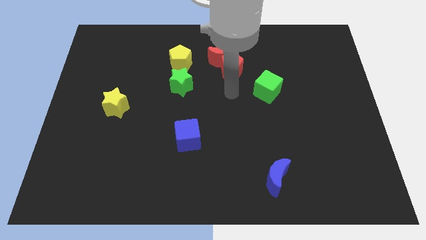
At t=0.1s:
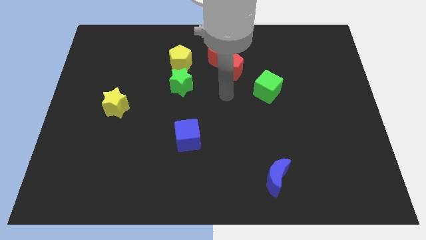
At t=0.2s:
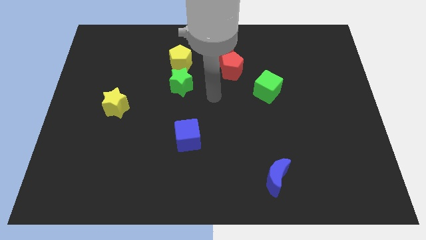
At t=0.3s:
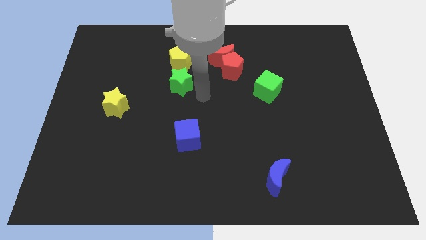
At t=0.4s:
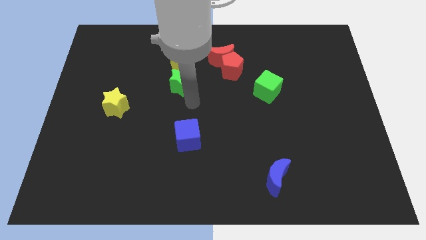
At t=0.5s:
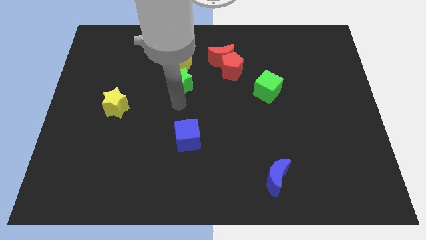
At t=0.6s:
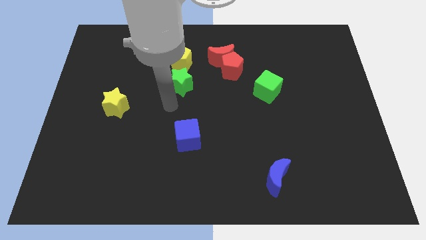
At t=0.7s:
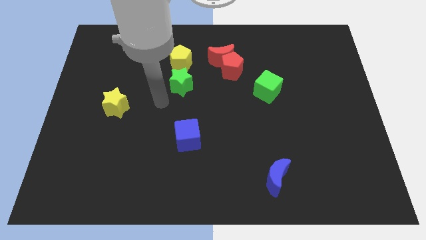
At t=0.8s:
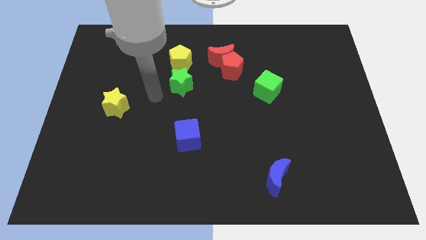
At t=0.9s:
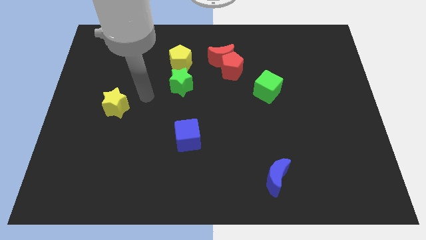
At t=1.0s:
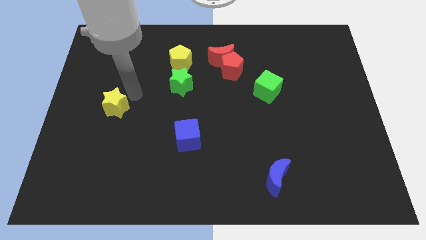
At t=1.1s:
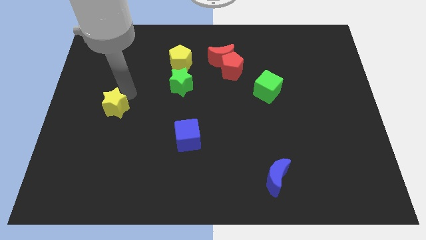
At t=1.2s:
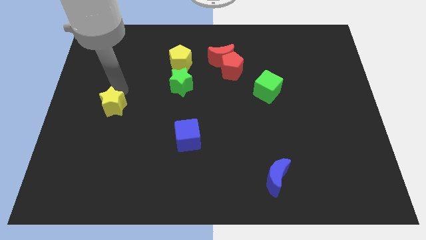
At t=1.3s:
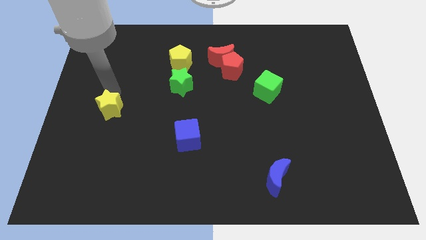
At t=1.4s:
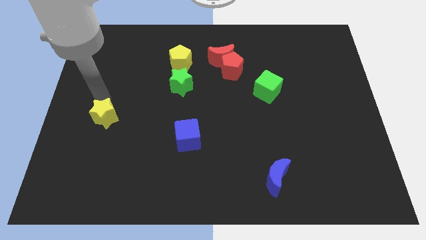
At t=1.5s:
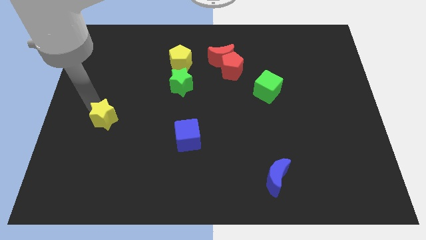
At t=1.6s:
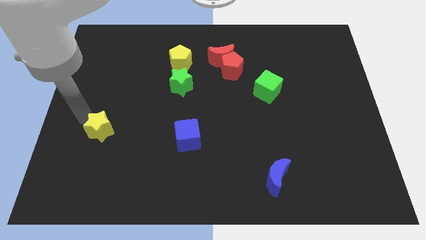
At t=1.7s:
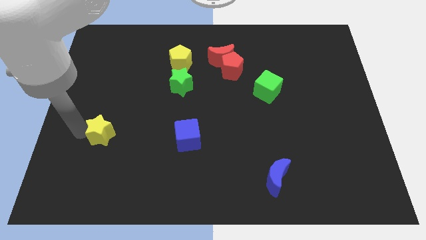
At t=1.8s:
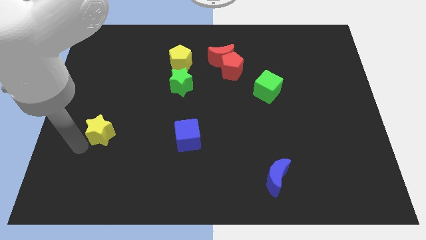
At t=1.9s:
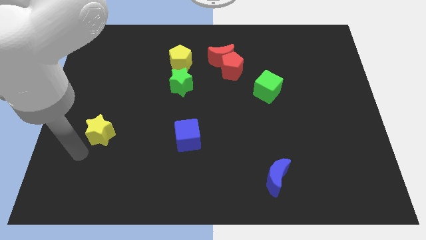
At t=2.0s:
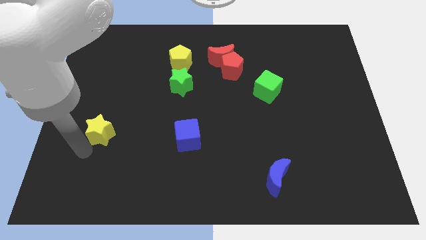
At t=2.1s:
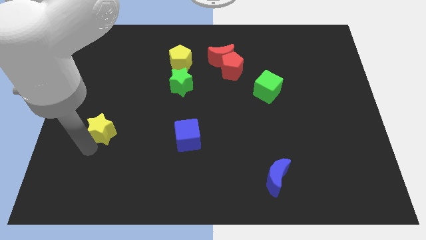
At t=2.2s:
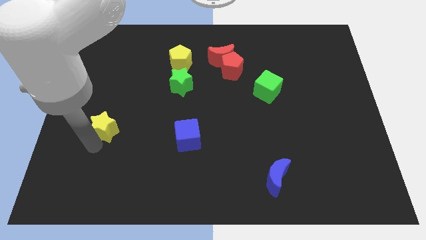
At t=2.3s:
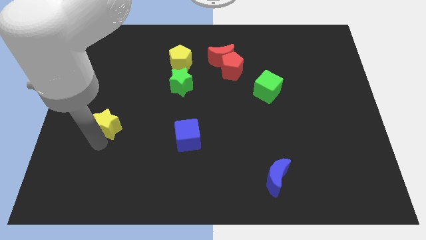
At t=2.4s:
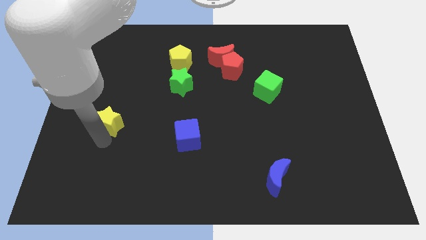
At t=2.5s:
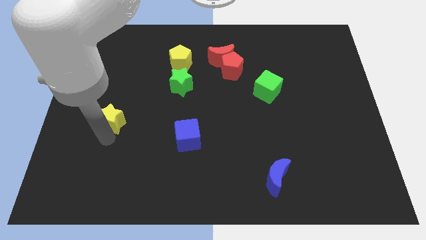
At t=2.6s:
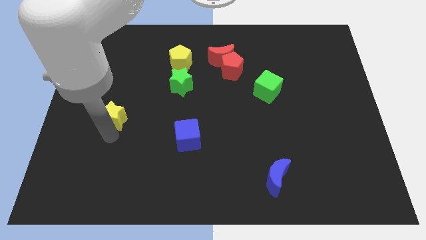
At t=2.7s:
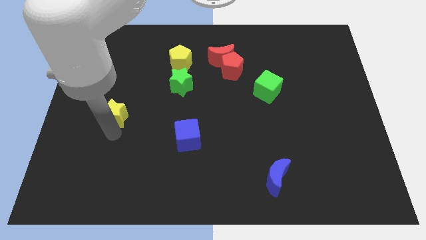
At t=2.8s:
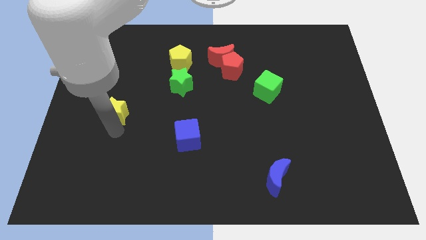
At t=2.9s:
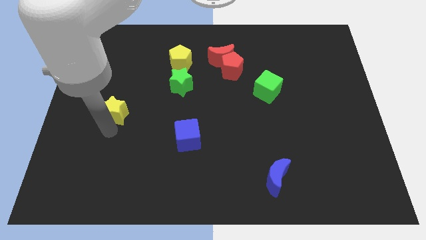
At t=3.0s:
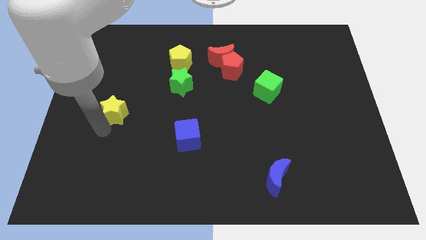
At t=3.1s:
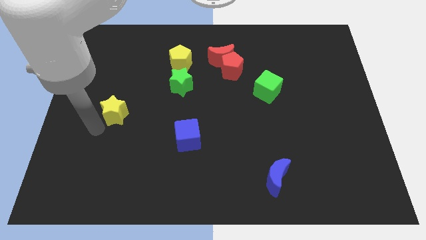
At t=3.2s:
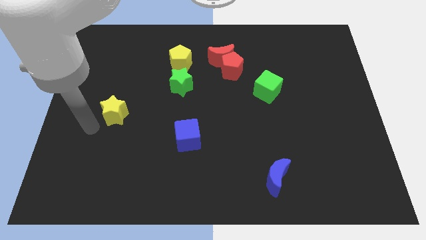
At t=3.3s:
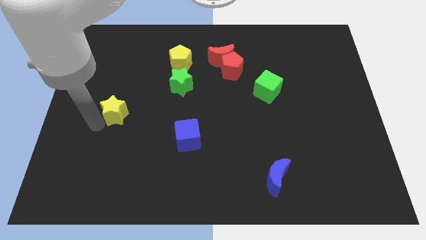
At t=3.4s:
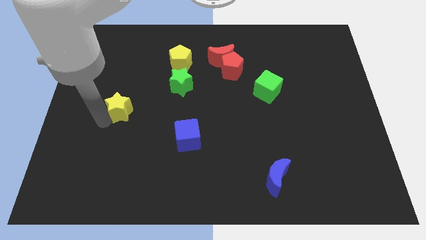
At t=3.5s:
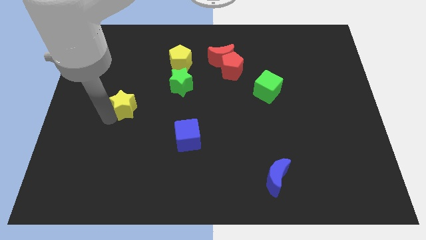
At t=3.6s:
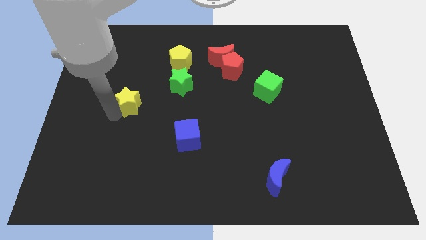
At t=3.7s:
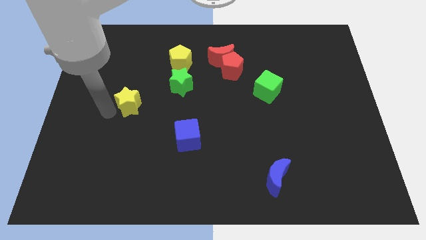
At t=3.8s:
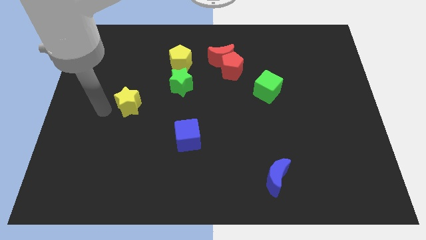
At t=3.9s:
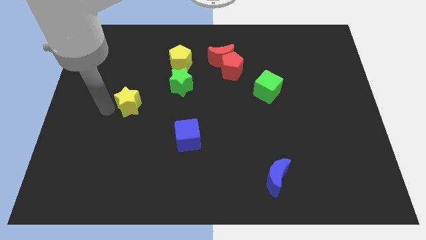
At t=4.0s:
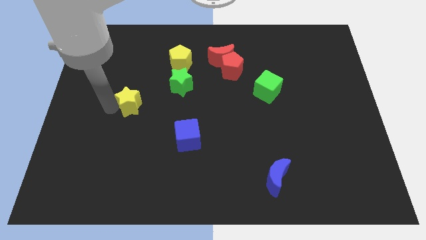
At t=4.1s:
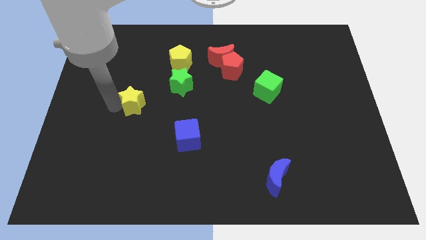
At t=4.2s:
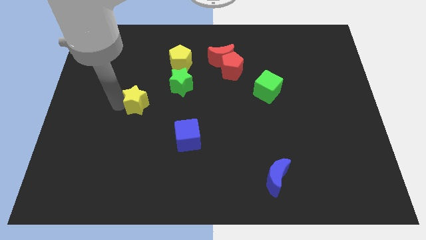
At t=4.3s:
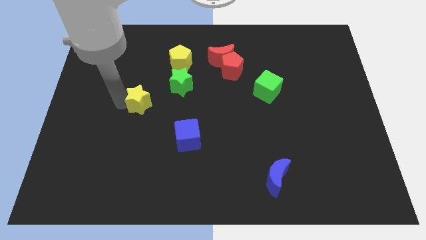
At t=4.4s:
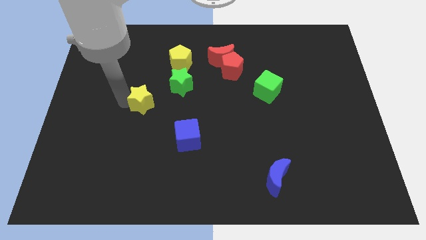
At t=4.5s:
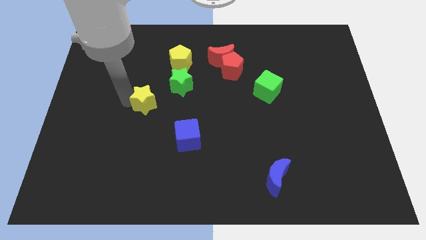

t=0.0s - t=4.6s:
slide the yellow star slightly to the right

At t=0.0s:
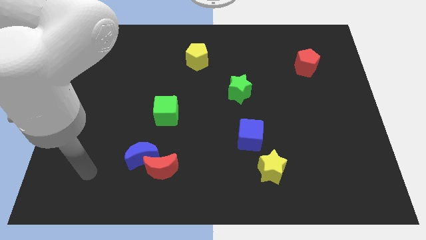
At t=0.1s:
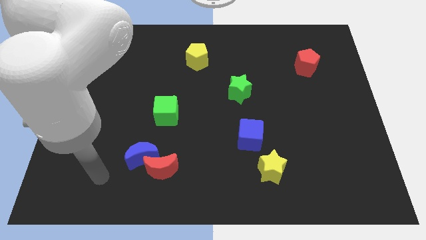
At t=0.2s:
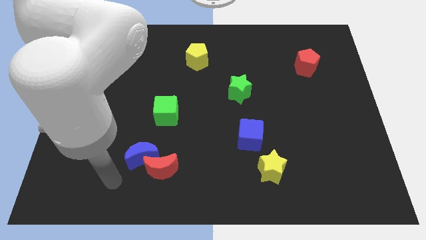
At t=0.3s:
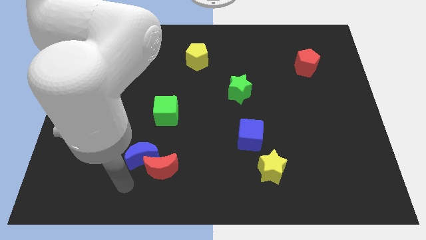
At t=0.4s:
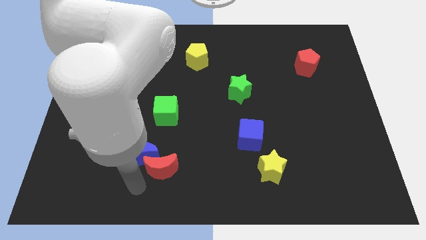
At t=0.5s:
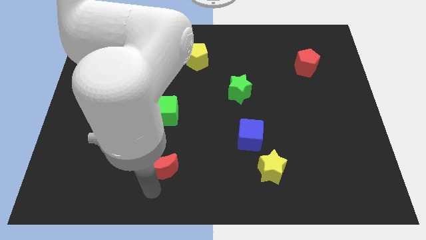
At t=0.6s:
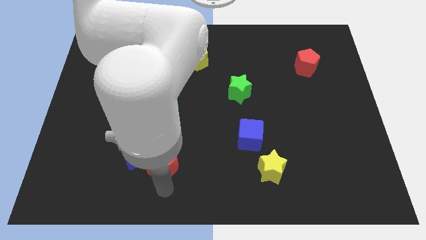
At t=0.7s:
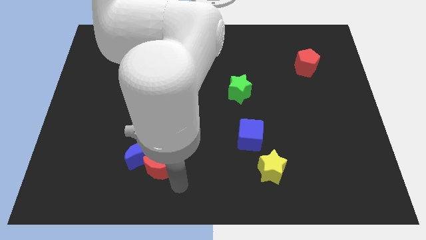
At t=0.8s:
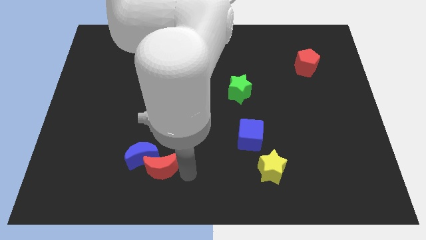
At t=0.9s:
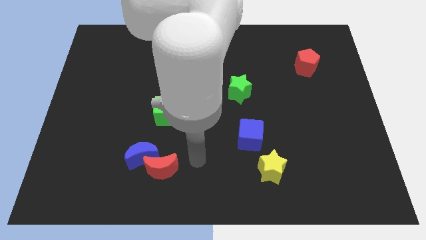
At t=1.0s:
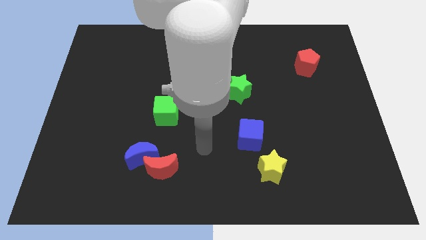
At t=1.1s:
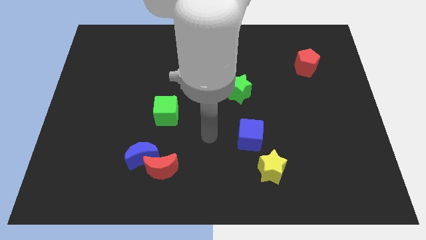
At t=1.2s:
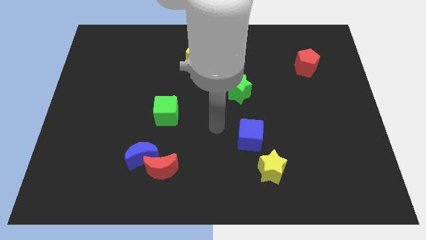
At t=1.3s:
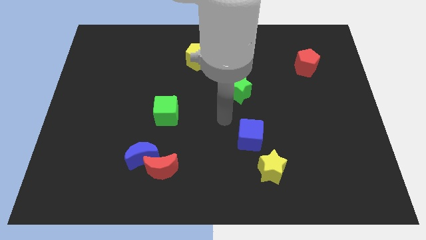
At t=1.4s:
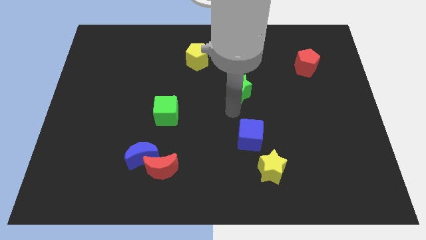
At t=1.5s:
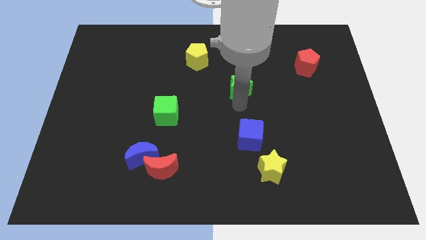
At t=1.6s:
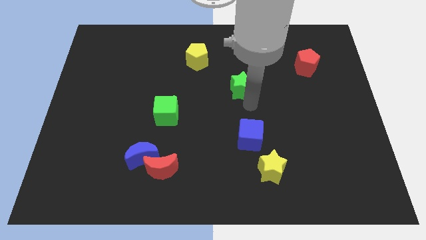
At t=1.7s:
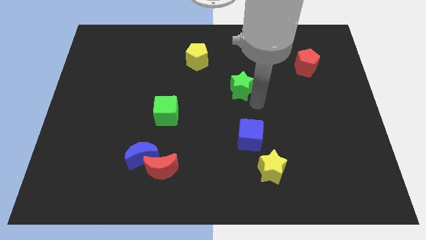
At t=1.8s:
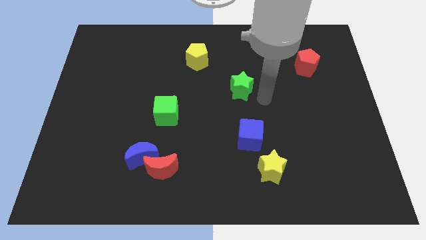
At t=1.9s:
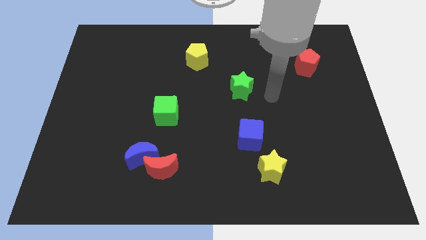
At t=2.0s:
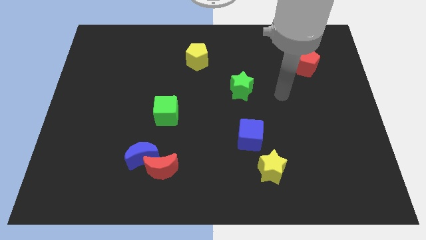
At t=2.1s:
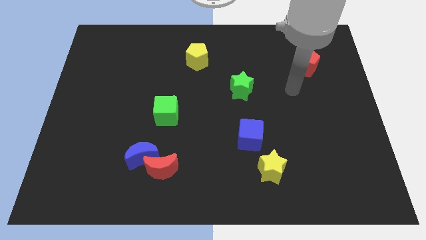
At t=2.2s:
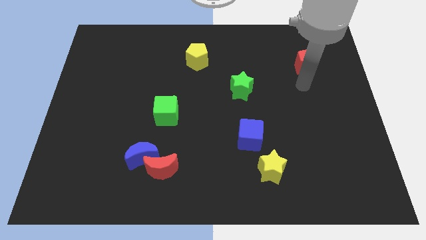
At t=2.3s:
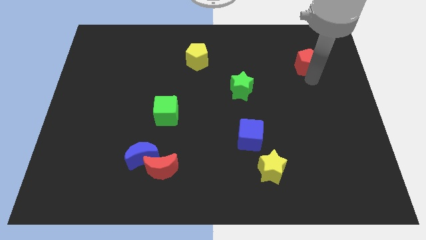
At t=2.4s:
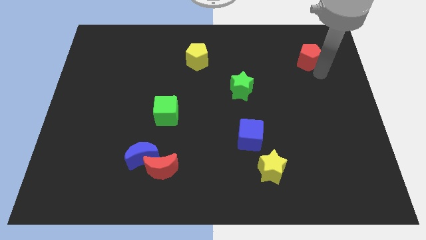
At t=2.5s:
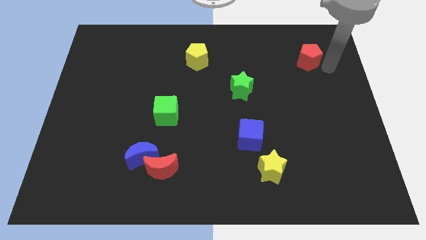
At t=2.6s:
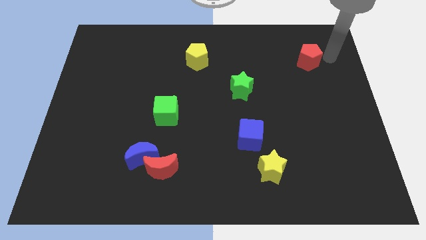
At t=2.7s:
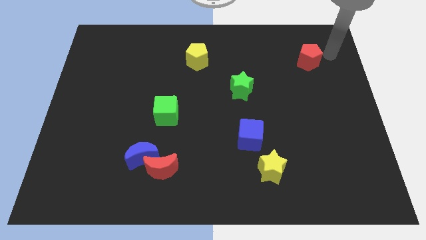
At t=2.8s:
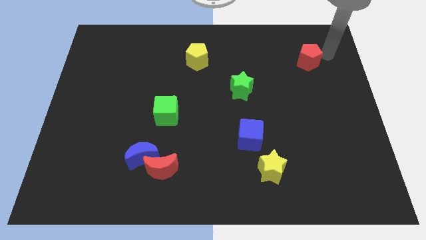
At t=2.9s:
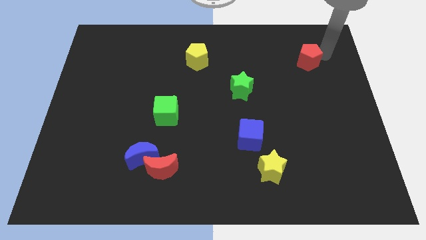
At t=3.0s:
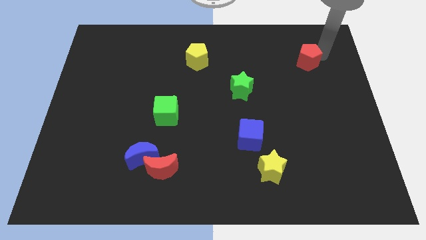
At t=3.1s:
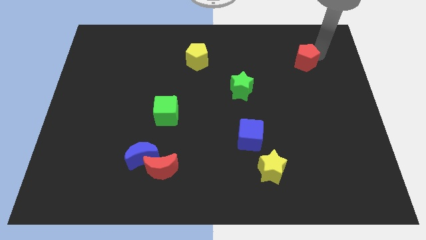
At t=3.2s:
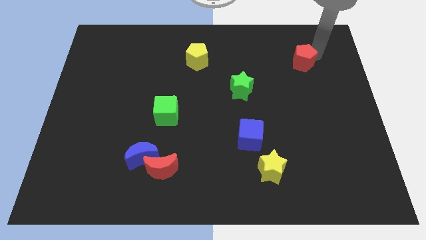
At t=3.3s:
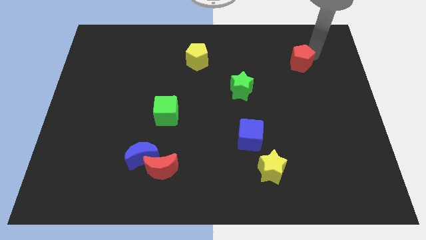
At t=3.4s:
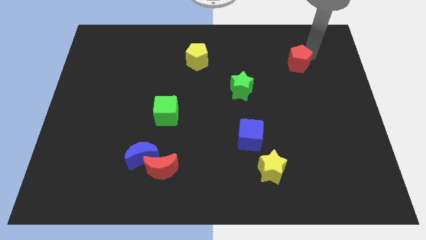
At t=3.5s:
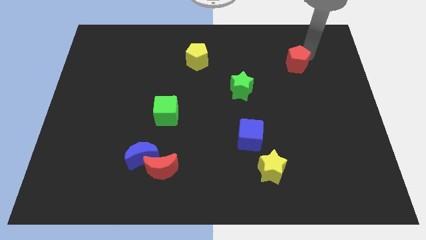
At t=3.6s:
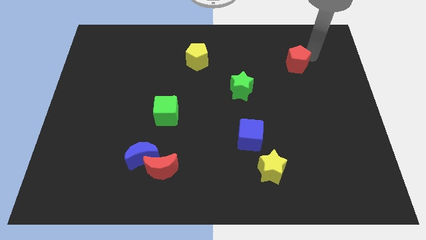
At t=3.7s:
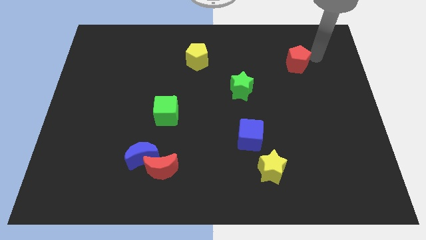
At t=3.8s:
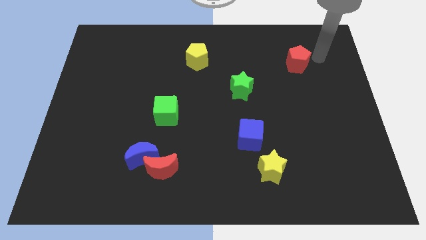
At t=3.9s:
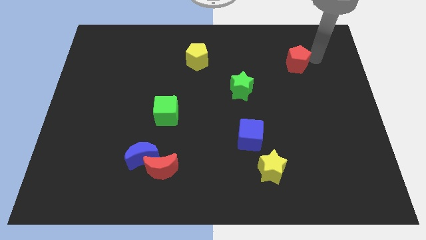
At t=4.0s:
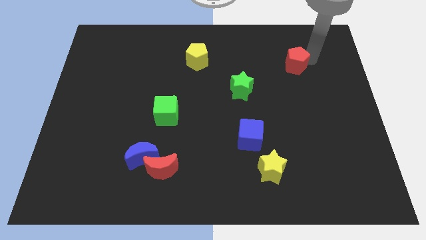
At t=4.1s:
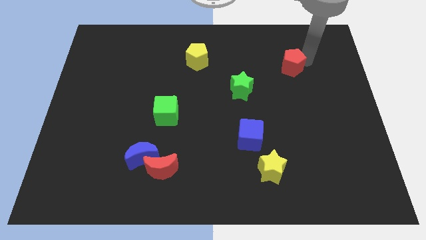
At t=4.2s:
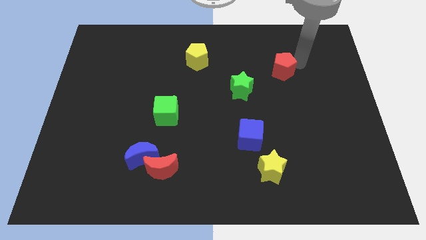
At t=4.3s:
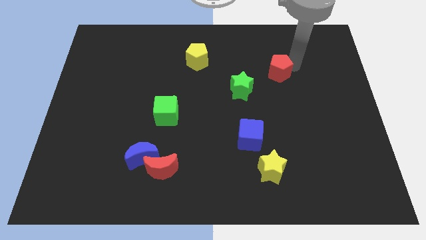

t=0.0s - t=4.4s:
slightly move the red pentagon left
